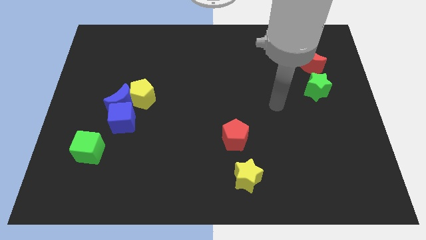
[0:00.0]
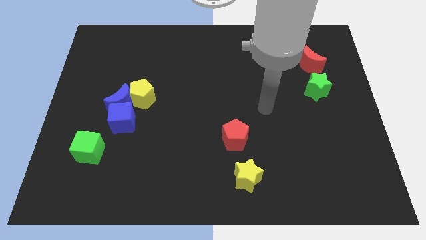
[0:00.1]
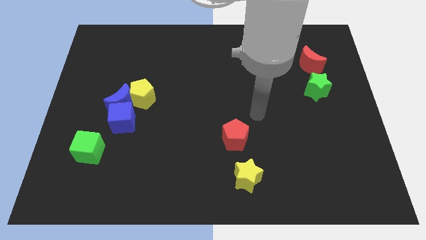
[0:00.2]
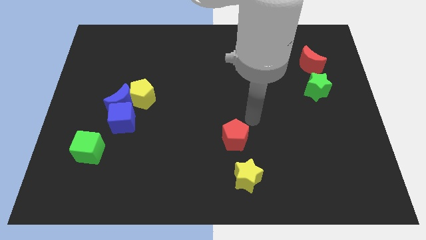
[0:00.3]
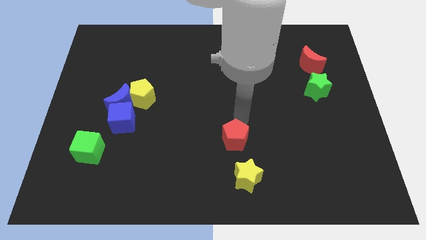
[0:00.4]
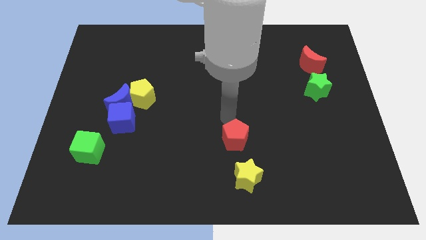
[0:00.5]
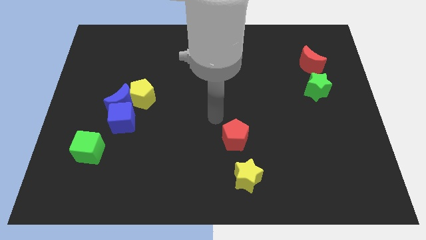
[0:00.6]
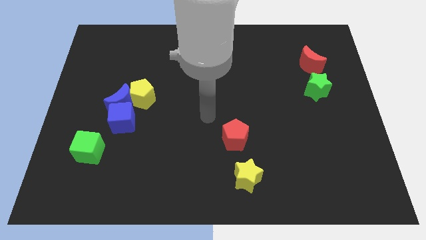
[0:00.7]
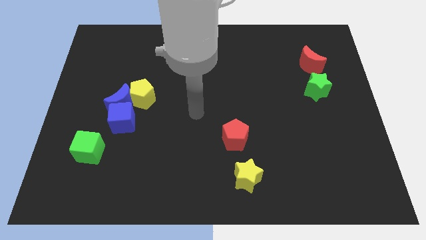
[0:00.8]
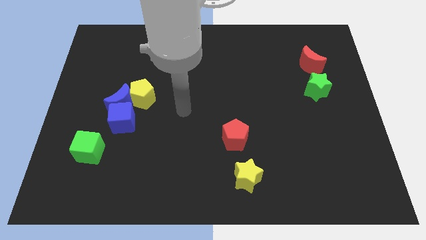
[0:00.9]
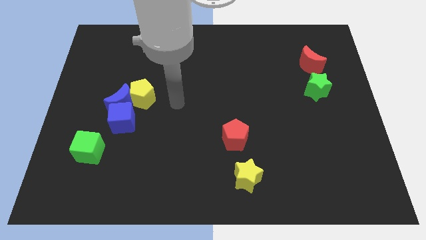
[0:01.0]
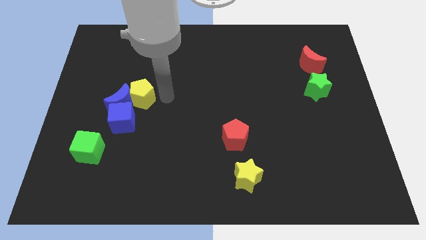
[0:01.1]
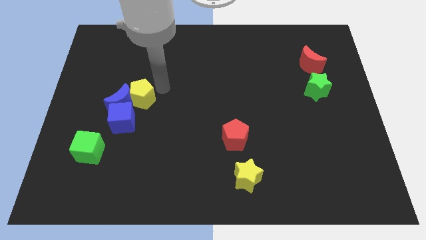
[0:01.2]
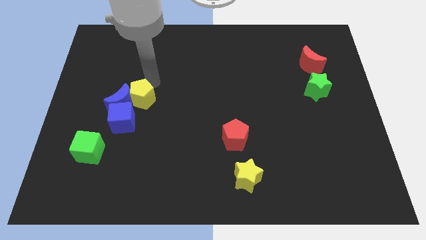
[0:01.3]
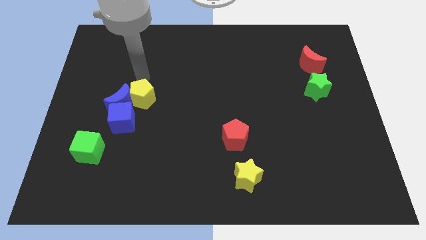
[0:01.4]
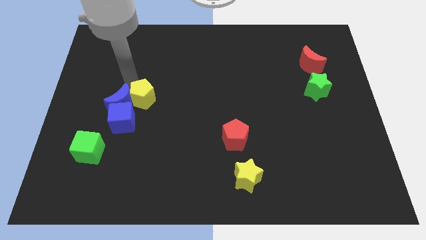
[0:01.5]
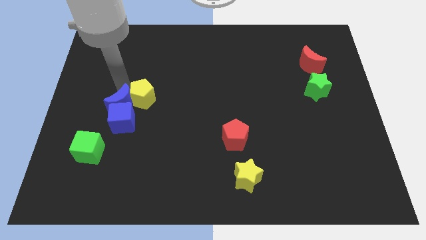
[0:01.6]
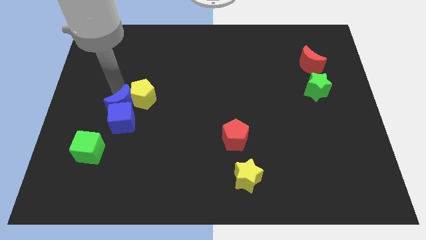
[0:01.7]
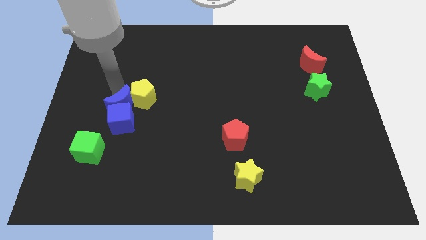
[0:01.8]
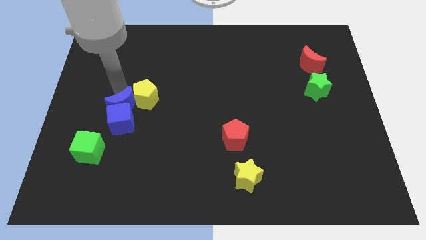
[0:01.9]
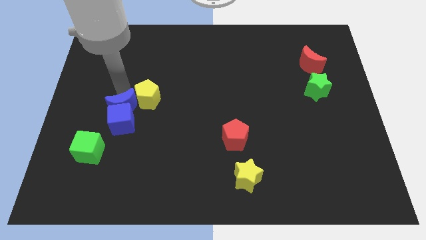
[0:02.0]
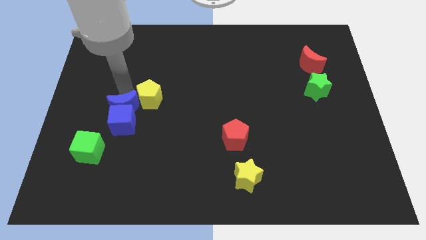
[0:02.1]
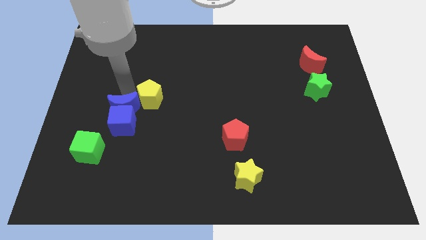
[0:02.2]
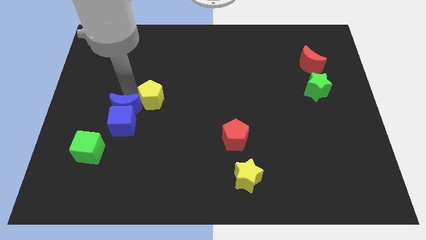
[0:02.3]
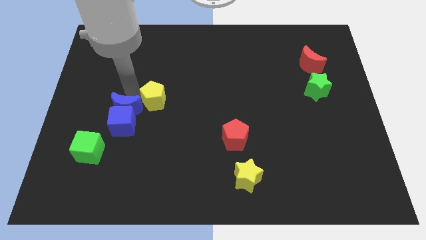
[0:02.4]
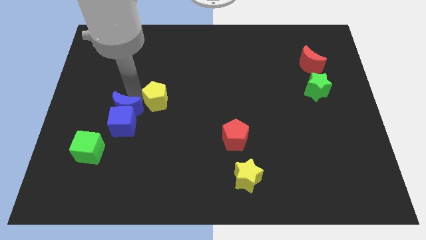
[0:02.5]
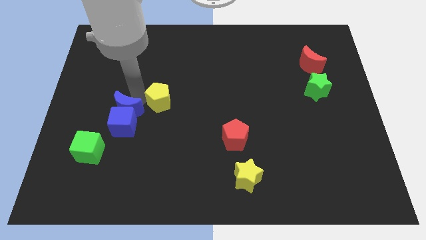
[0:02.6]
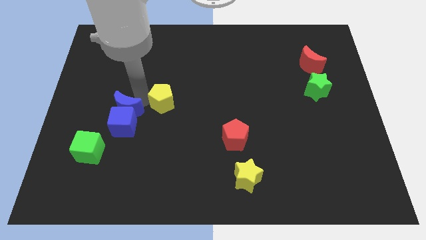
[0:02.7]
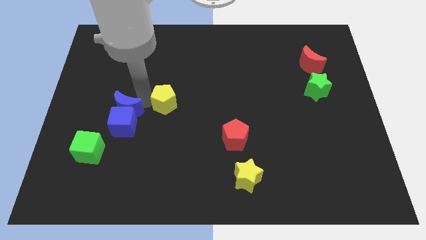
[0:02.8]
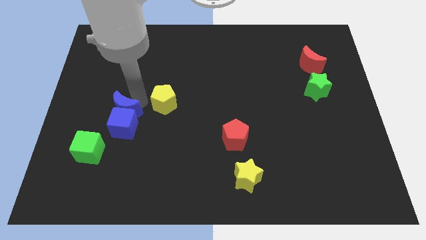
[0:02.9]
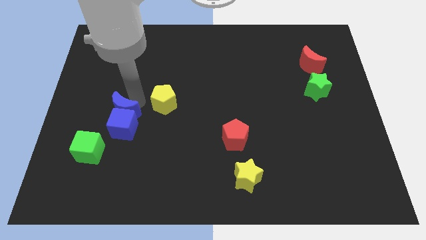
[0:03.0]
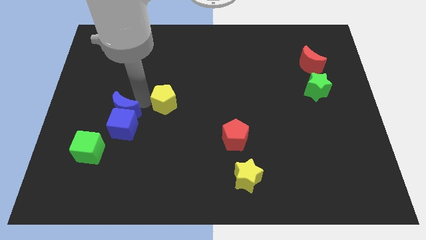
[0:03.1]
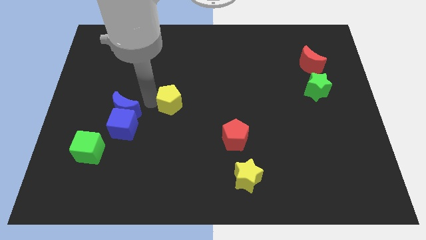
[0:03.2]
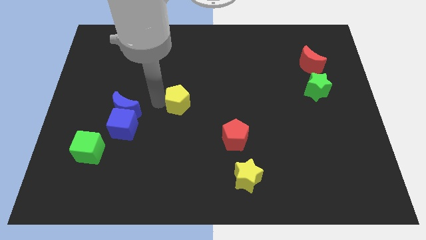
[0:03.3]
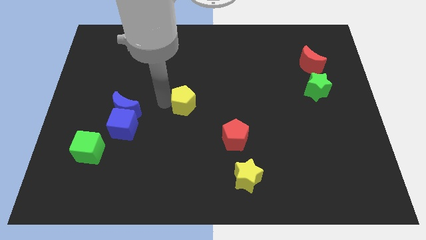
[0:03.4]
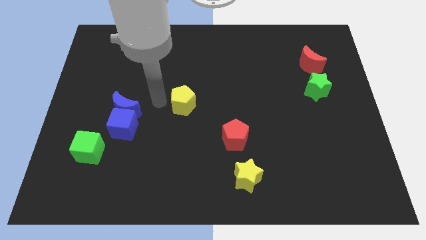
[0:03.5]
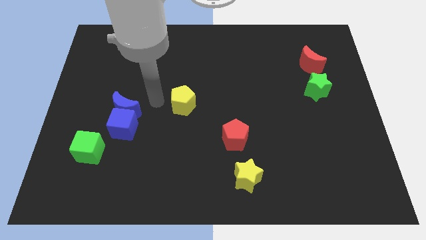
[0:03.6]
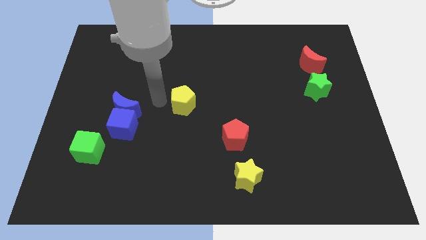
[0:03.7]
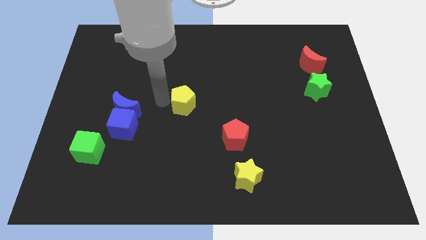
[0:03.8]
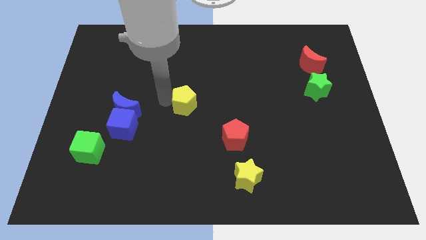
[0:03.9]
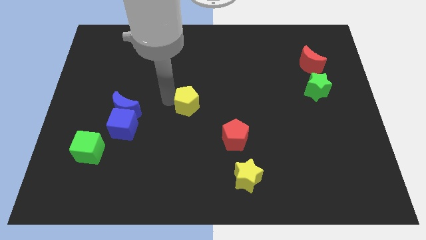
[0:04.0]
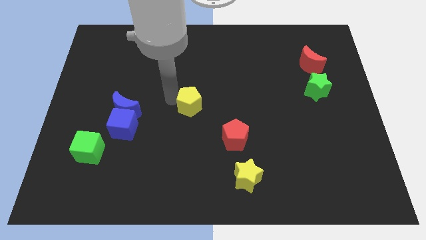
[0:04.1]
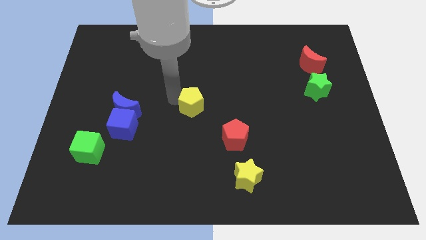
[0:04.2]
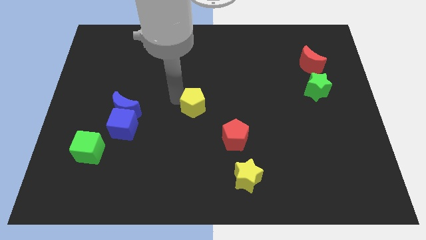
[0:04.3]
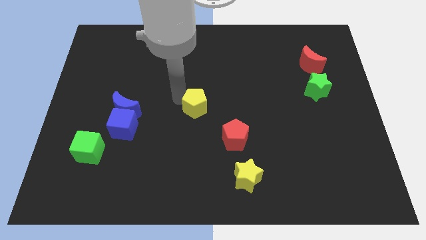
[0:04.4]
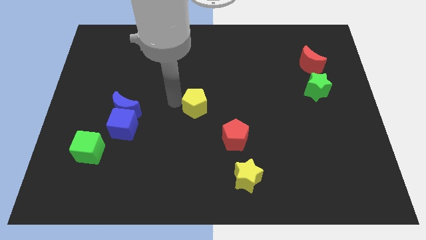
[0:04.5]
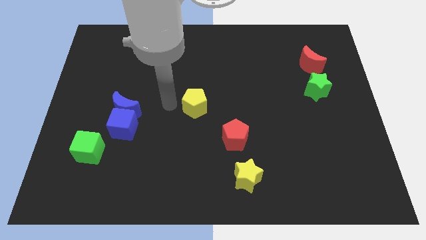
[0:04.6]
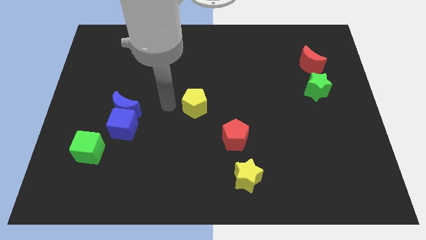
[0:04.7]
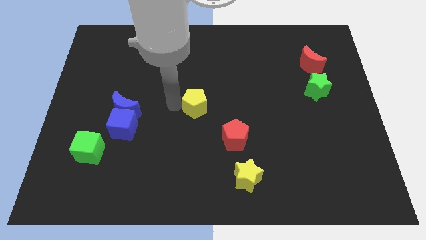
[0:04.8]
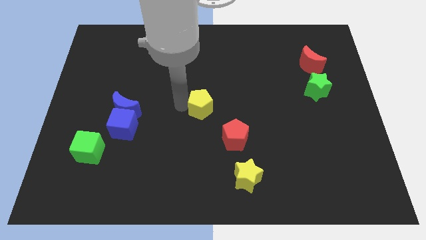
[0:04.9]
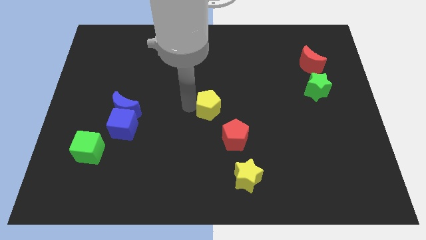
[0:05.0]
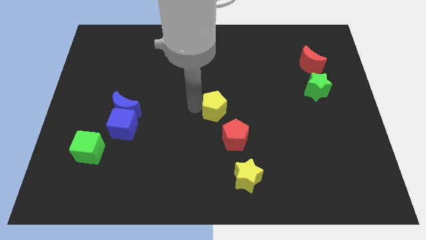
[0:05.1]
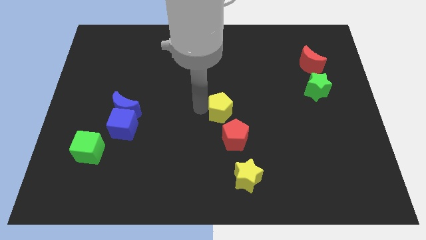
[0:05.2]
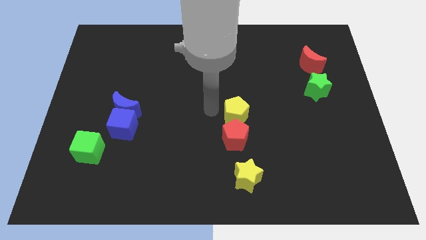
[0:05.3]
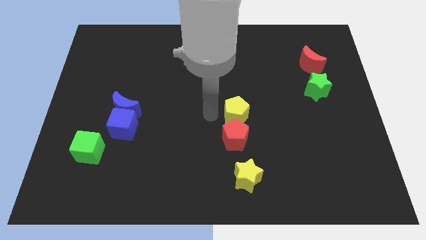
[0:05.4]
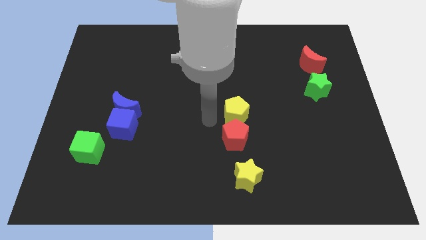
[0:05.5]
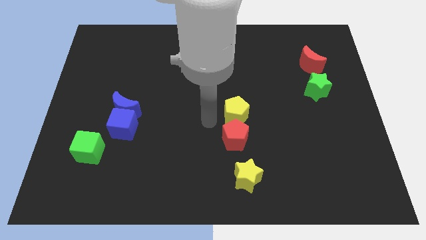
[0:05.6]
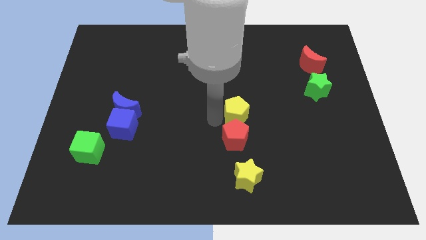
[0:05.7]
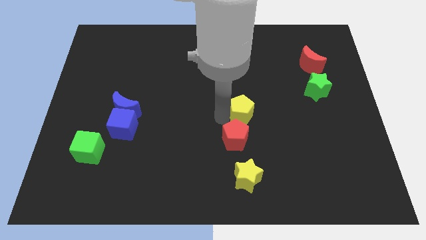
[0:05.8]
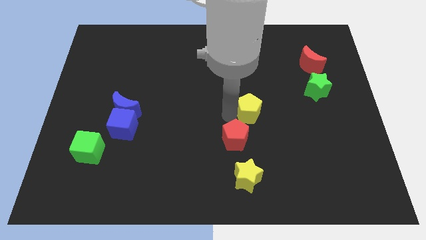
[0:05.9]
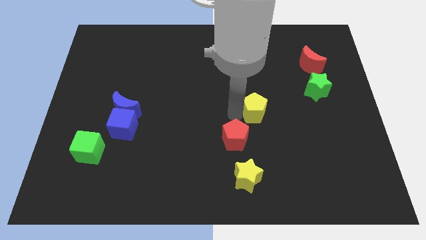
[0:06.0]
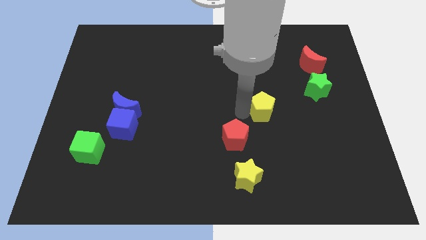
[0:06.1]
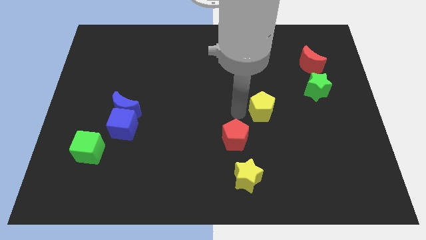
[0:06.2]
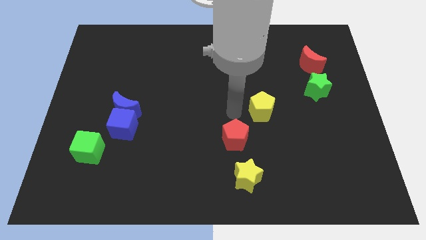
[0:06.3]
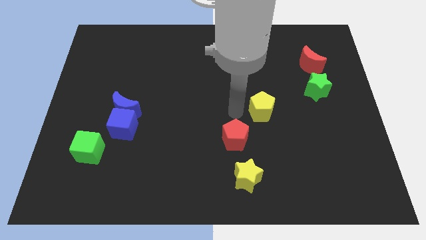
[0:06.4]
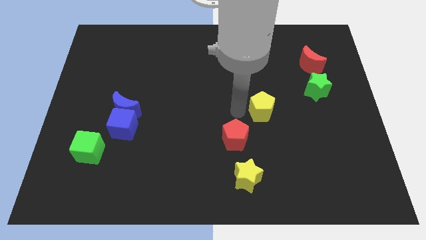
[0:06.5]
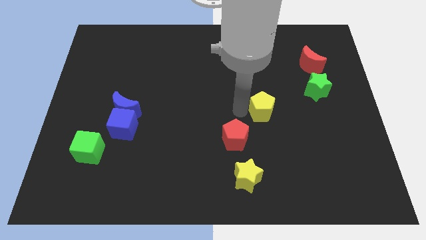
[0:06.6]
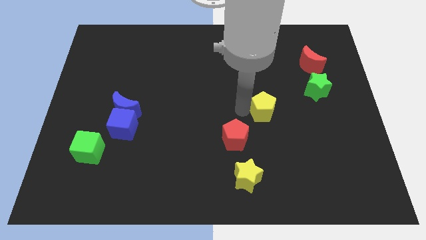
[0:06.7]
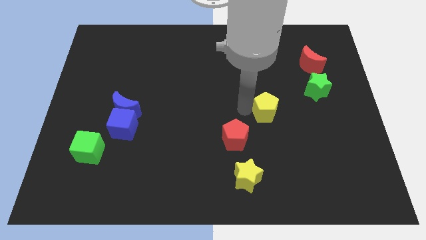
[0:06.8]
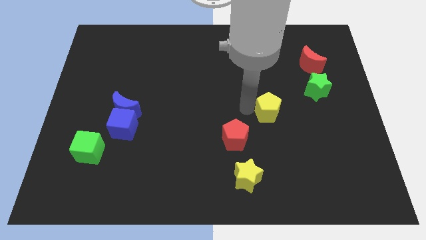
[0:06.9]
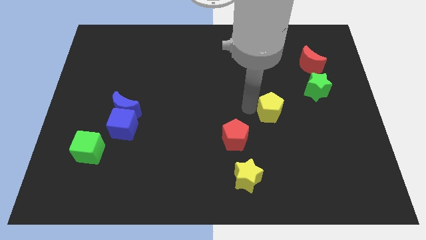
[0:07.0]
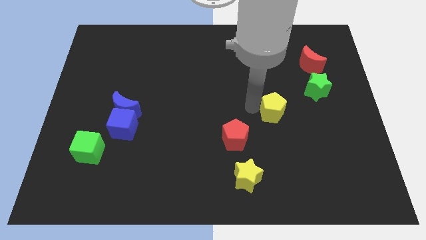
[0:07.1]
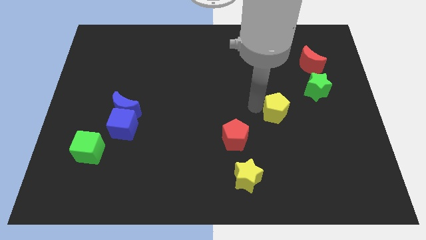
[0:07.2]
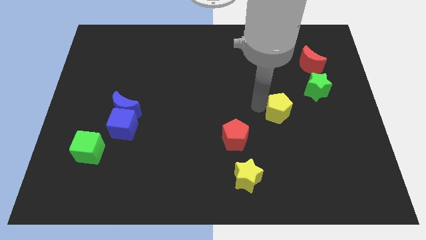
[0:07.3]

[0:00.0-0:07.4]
move the yellow pentagon to the bottom left of the green star

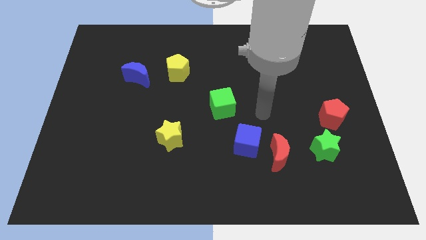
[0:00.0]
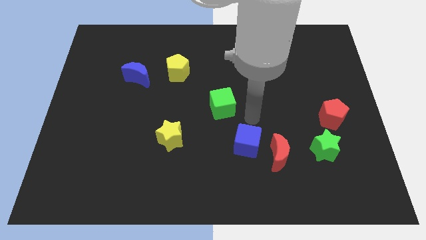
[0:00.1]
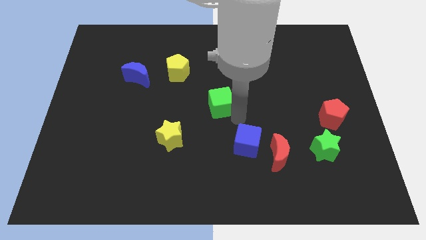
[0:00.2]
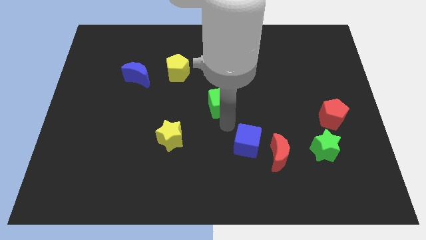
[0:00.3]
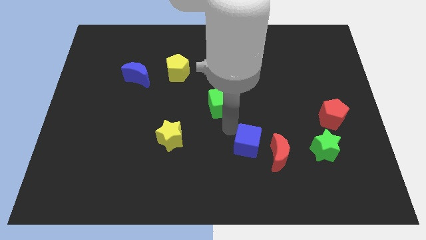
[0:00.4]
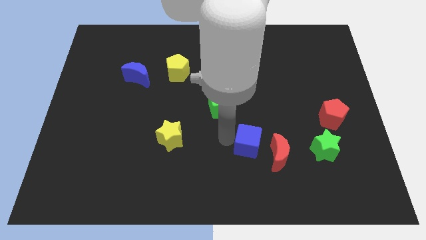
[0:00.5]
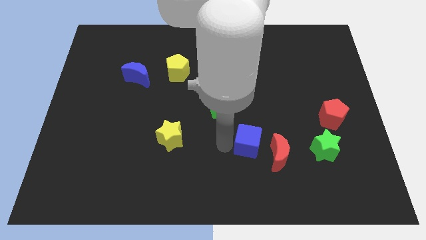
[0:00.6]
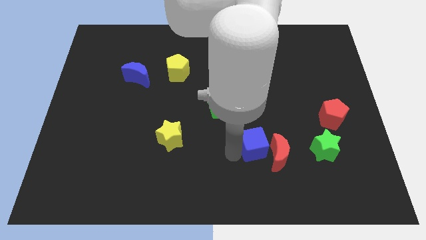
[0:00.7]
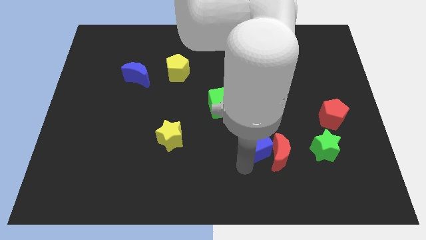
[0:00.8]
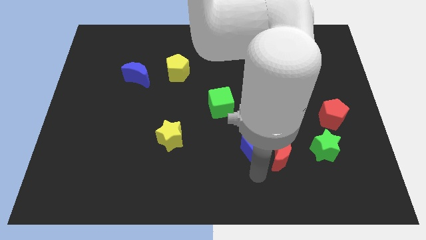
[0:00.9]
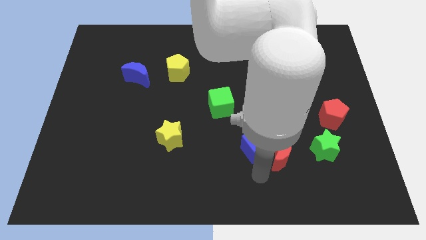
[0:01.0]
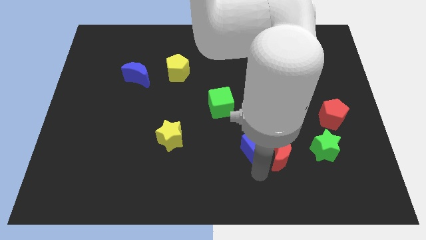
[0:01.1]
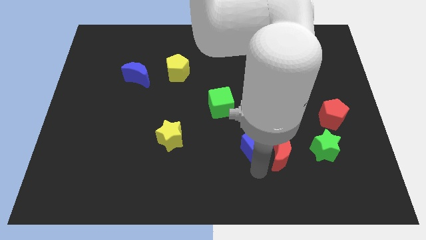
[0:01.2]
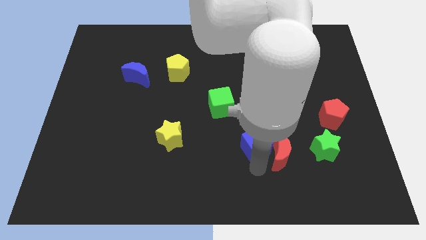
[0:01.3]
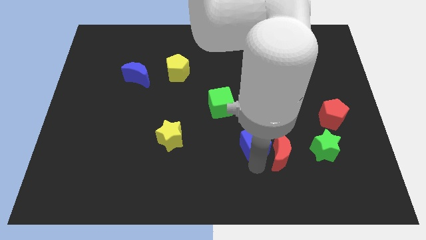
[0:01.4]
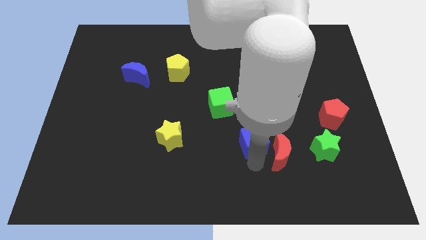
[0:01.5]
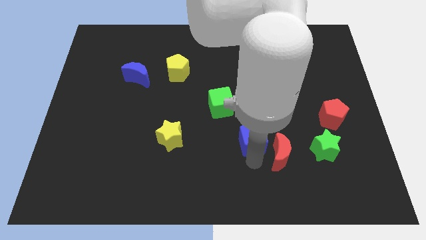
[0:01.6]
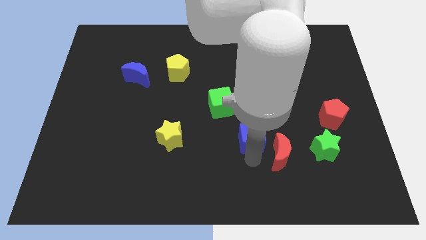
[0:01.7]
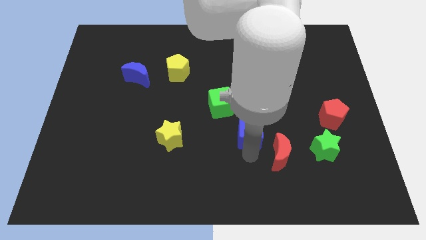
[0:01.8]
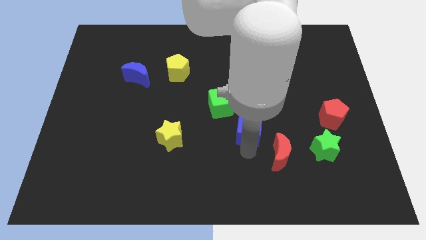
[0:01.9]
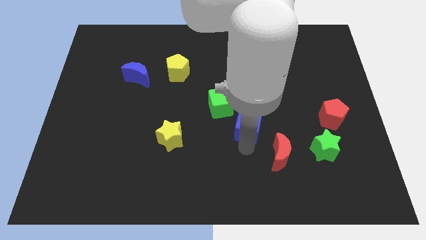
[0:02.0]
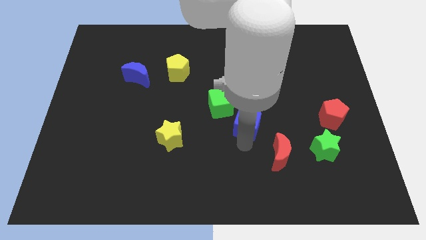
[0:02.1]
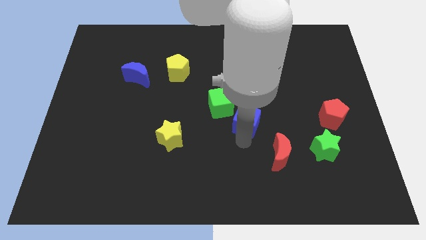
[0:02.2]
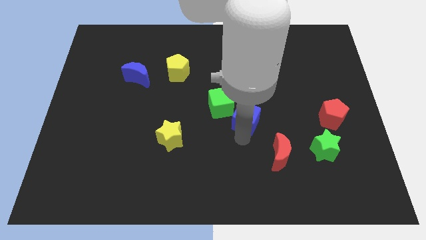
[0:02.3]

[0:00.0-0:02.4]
slide the blue cube right of the green cube
